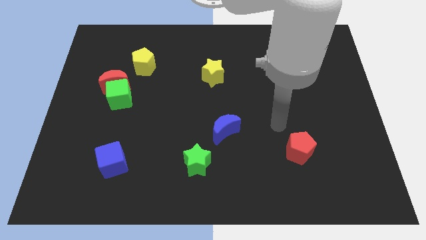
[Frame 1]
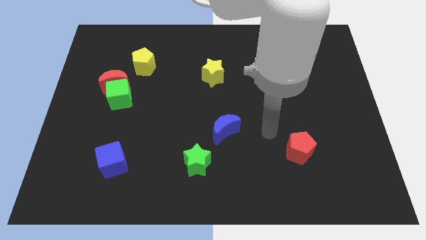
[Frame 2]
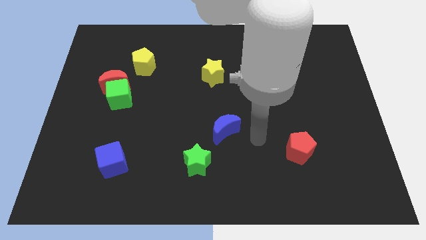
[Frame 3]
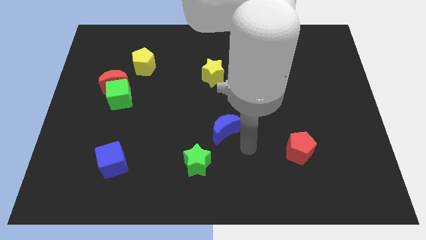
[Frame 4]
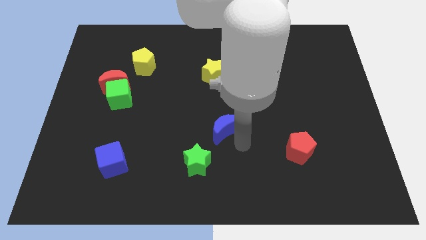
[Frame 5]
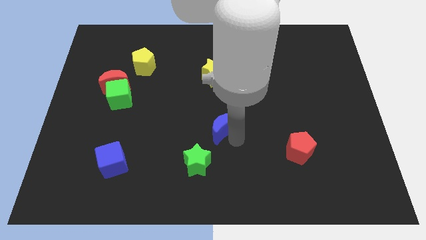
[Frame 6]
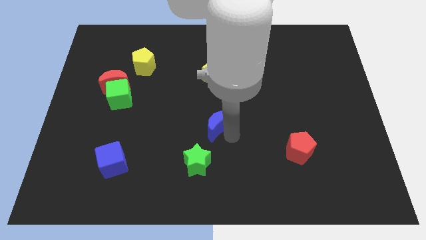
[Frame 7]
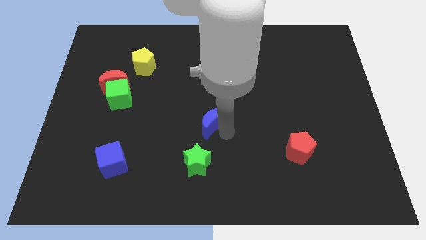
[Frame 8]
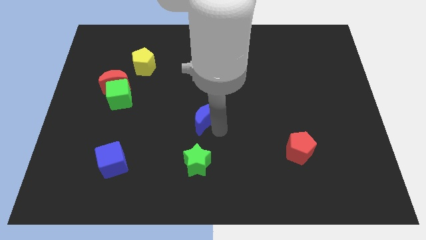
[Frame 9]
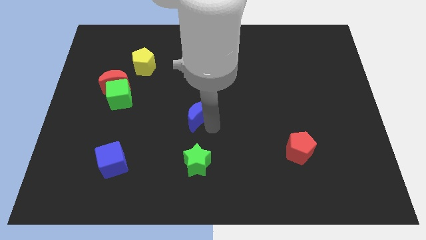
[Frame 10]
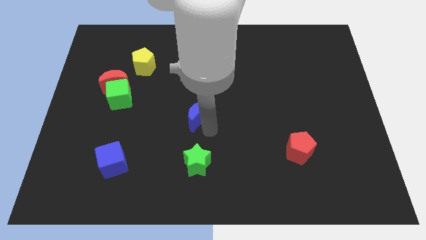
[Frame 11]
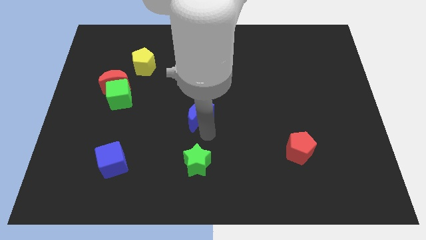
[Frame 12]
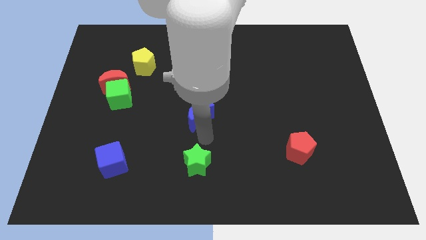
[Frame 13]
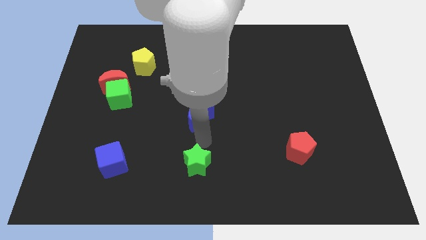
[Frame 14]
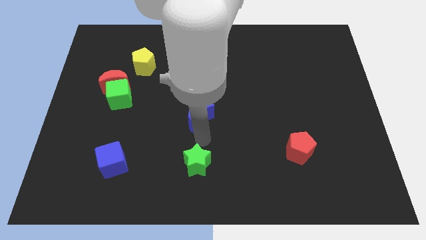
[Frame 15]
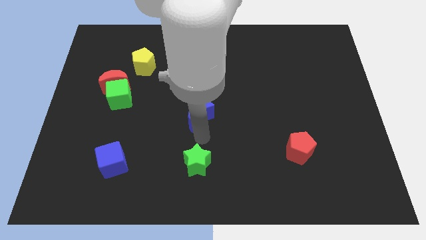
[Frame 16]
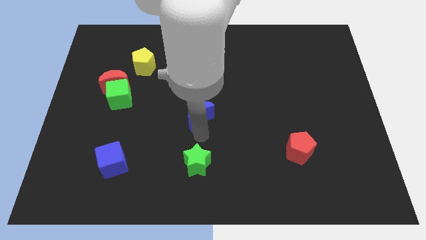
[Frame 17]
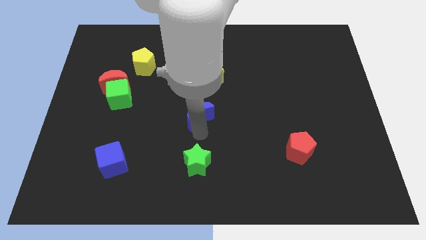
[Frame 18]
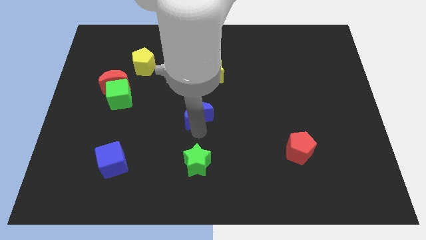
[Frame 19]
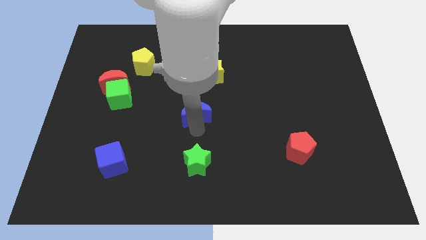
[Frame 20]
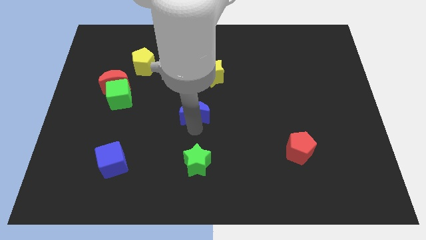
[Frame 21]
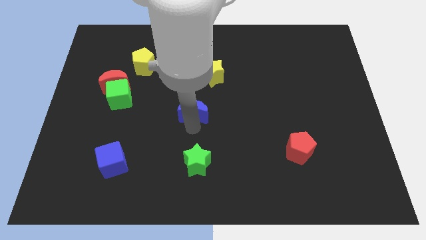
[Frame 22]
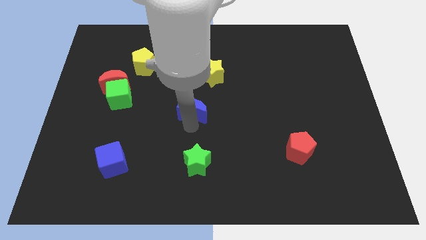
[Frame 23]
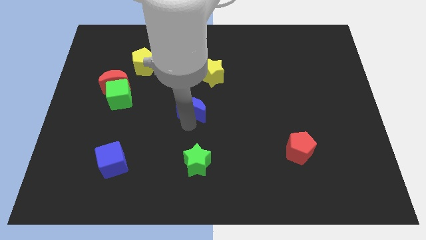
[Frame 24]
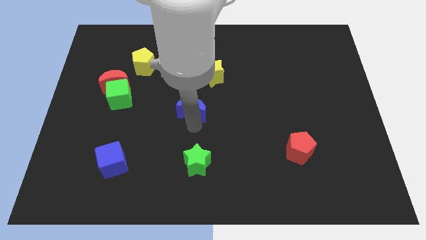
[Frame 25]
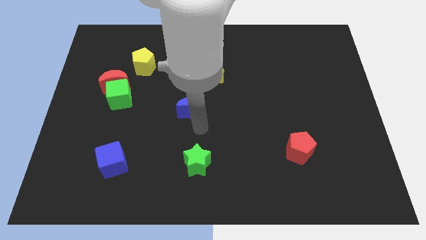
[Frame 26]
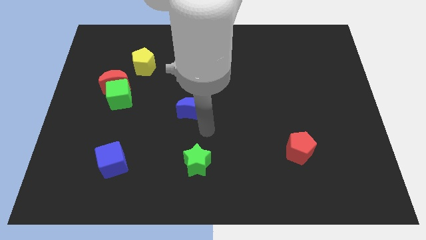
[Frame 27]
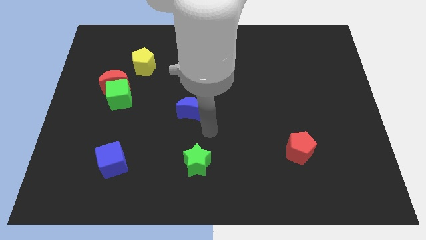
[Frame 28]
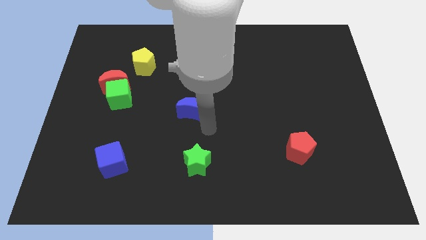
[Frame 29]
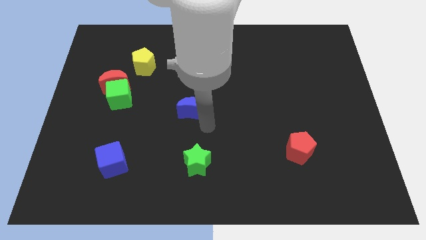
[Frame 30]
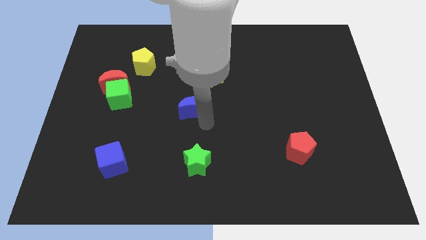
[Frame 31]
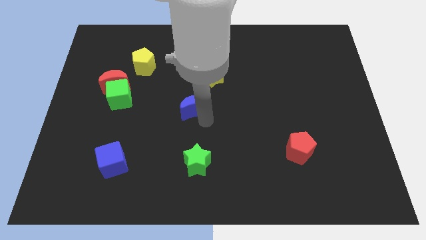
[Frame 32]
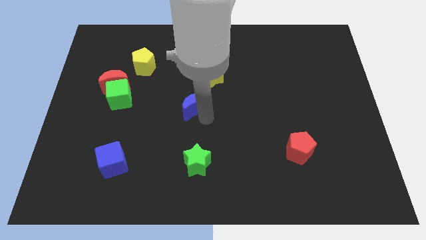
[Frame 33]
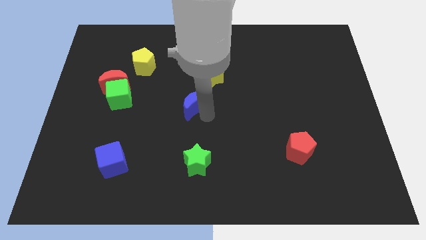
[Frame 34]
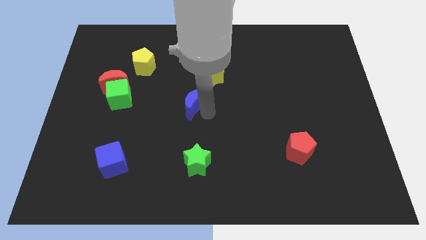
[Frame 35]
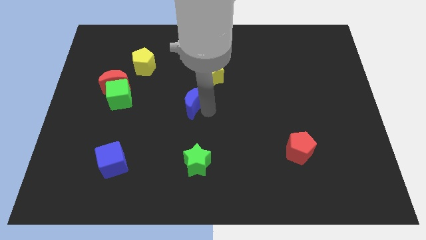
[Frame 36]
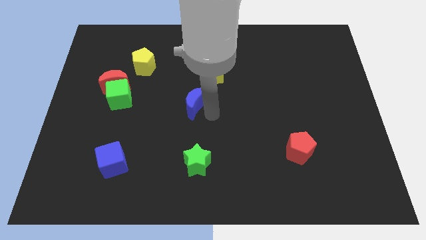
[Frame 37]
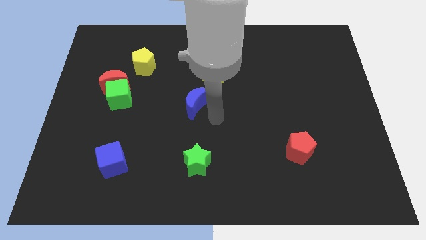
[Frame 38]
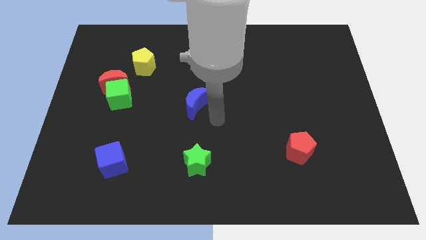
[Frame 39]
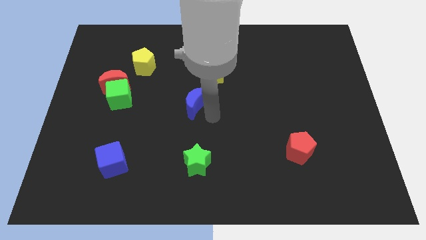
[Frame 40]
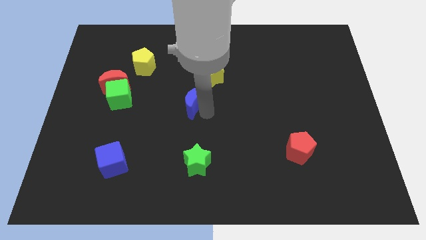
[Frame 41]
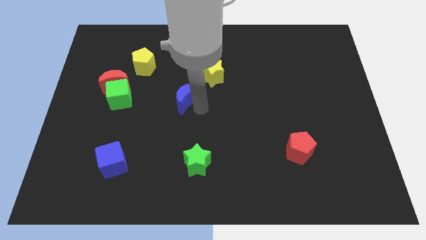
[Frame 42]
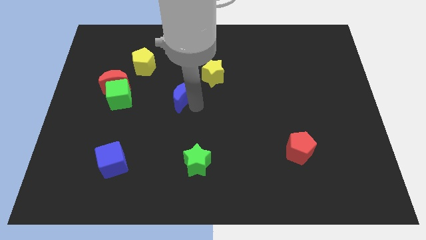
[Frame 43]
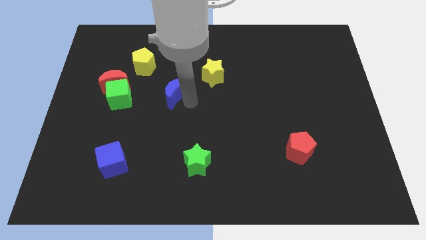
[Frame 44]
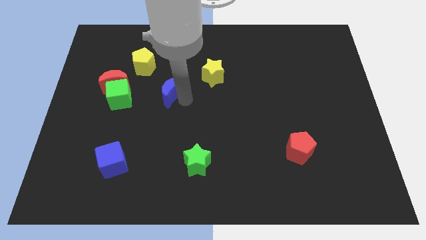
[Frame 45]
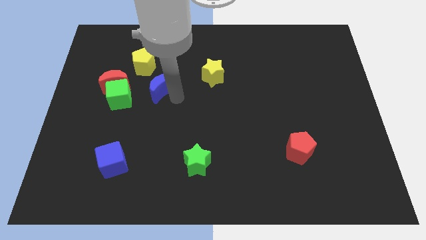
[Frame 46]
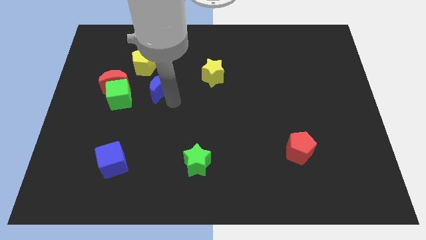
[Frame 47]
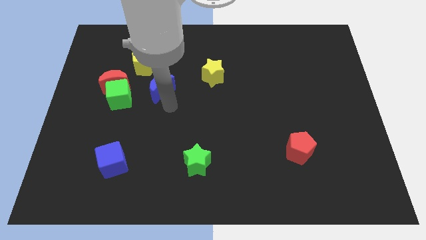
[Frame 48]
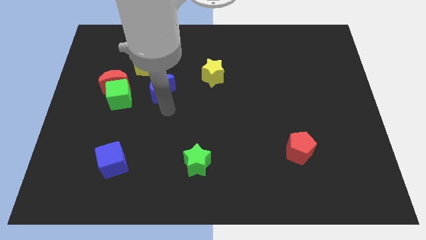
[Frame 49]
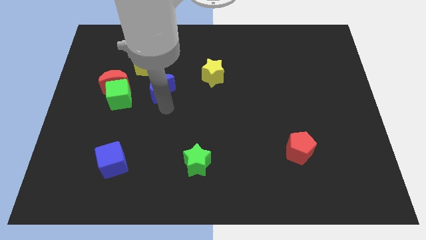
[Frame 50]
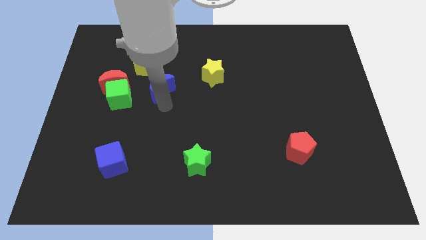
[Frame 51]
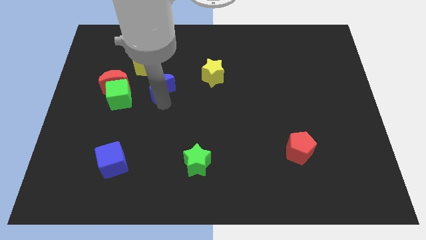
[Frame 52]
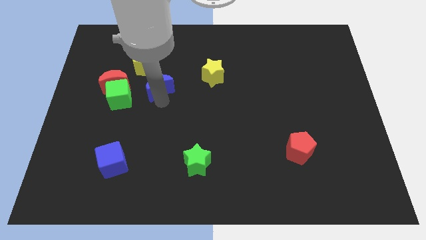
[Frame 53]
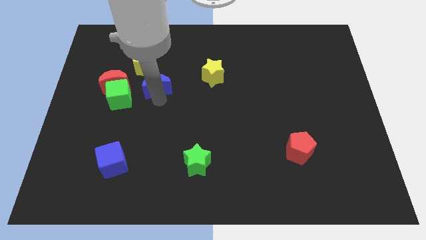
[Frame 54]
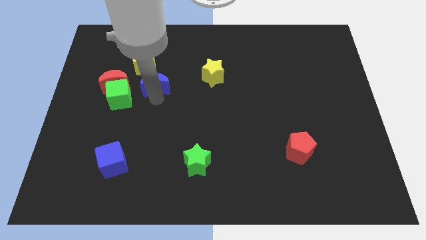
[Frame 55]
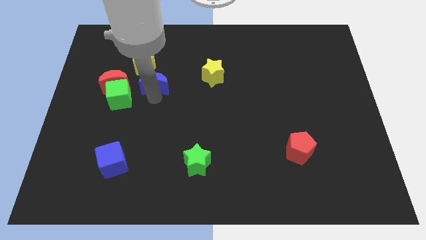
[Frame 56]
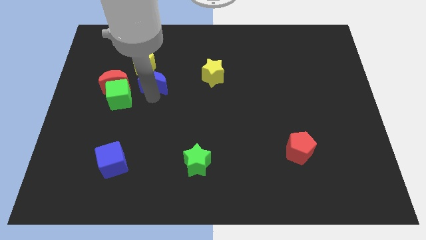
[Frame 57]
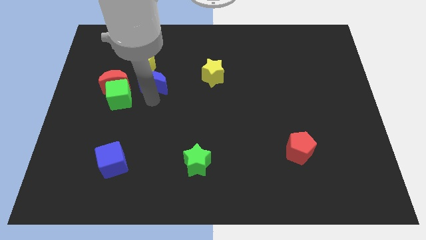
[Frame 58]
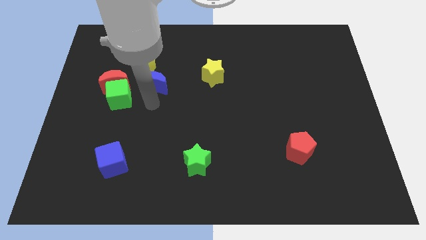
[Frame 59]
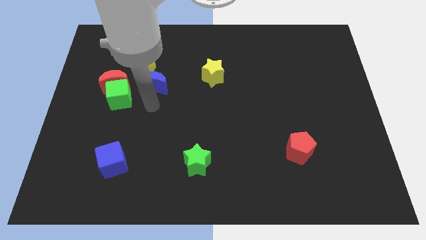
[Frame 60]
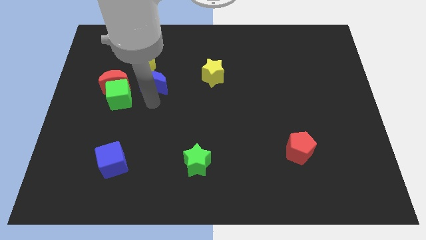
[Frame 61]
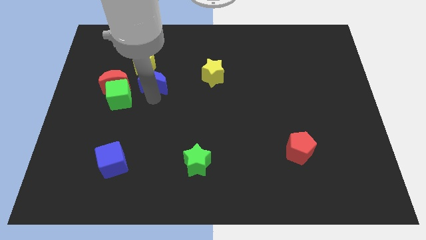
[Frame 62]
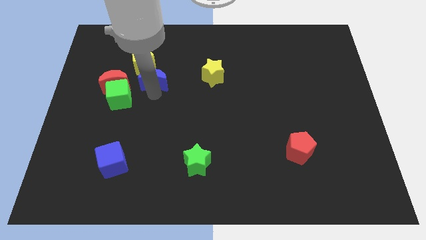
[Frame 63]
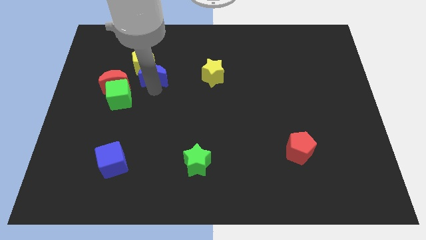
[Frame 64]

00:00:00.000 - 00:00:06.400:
move the blue moon close to the yellow pentagon

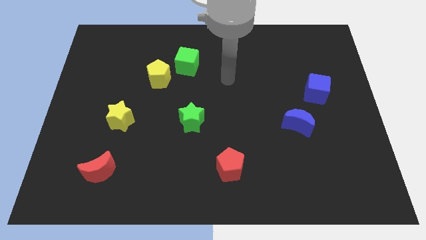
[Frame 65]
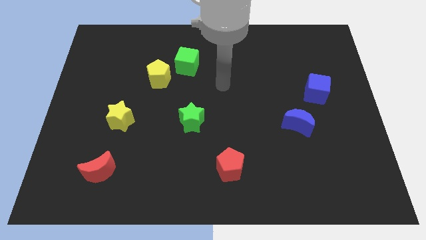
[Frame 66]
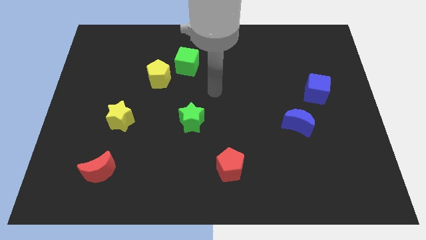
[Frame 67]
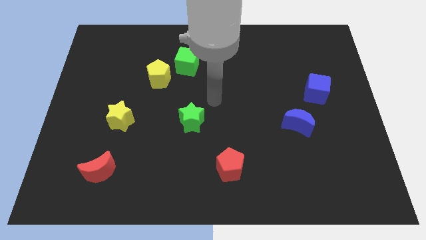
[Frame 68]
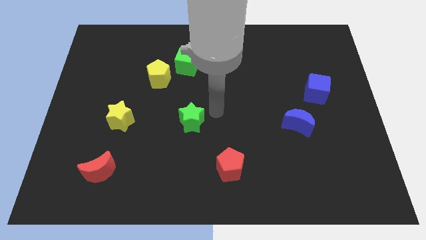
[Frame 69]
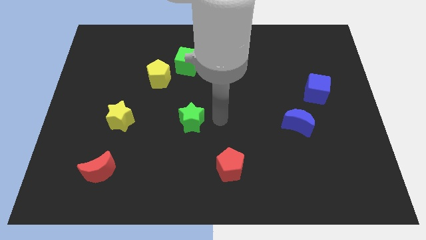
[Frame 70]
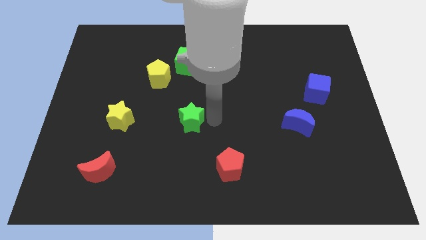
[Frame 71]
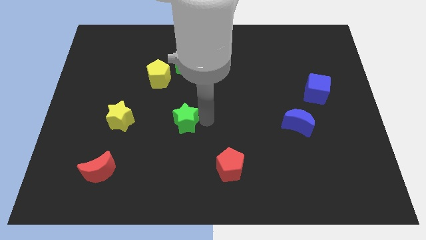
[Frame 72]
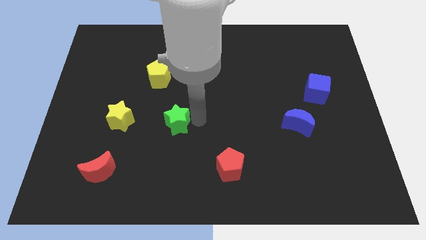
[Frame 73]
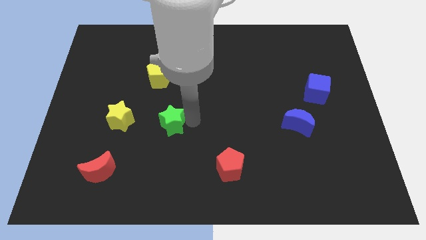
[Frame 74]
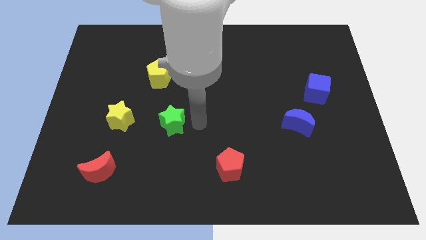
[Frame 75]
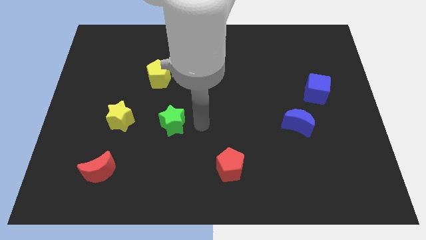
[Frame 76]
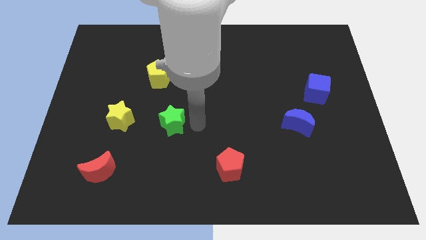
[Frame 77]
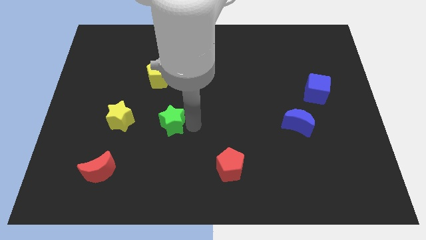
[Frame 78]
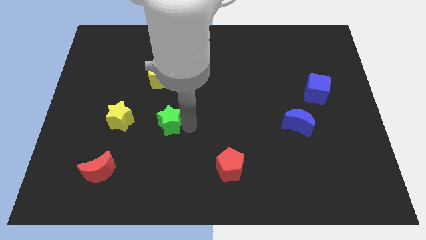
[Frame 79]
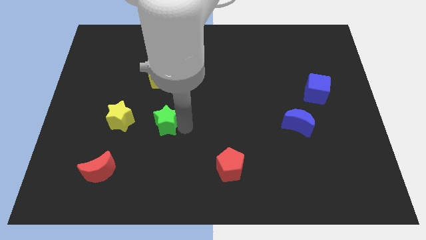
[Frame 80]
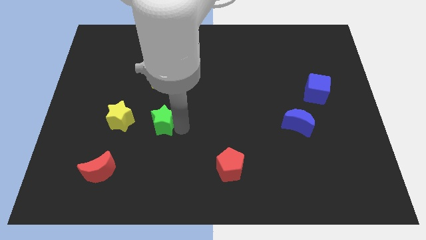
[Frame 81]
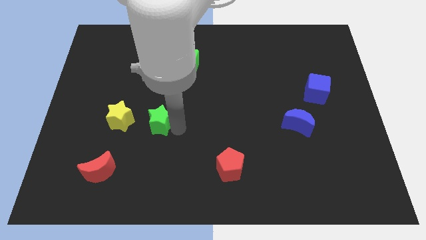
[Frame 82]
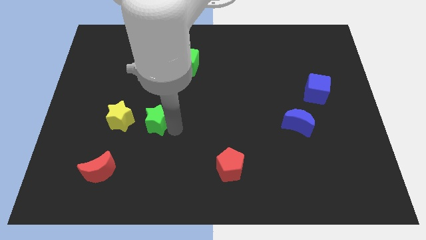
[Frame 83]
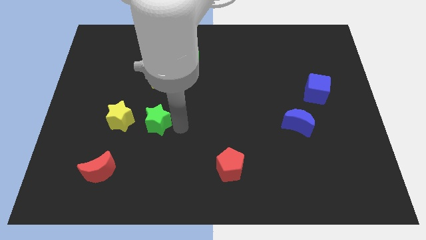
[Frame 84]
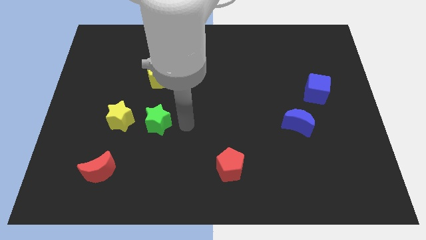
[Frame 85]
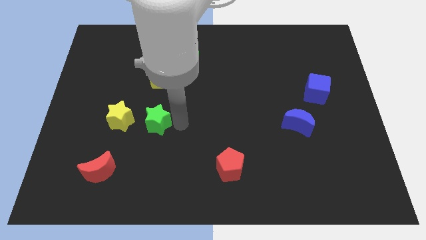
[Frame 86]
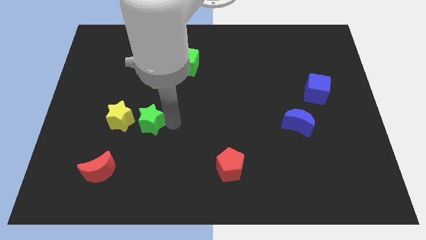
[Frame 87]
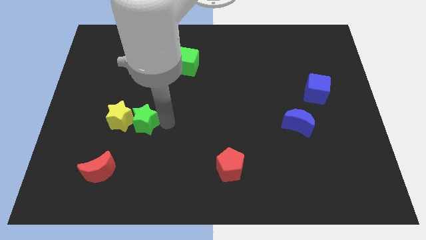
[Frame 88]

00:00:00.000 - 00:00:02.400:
push the green star towards the yellow star
